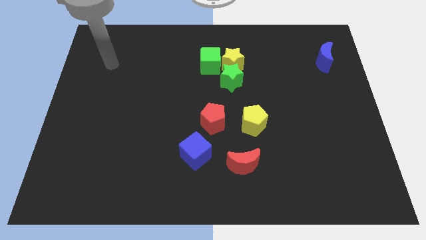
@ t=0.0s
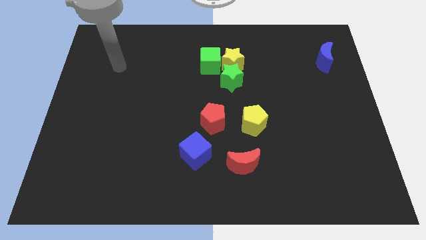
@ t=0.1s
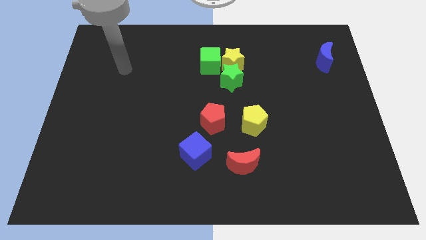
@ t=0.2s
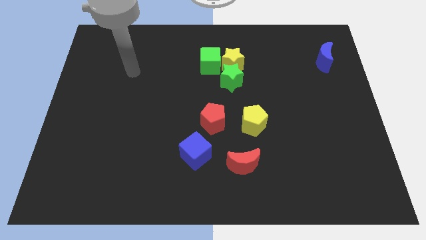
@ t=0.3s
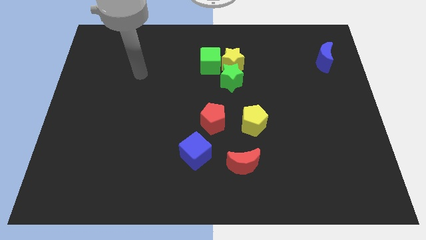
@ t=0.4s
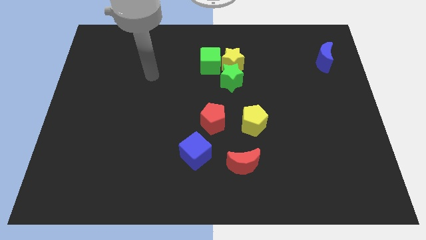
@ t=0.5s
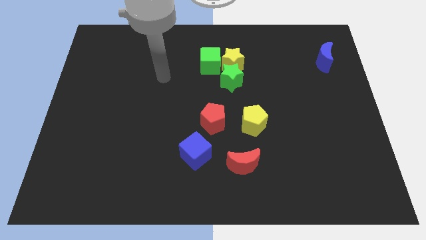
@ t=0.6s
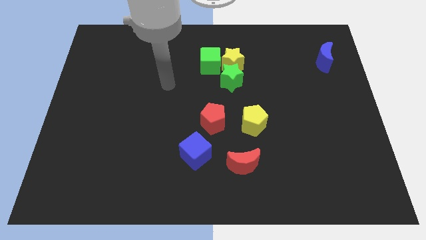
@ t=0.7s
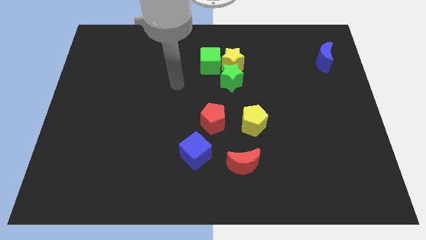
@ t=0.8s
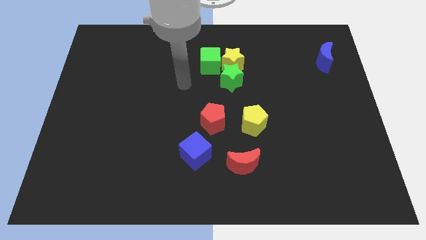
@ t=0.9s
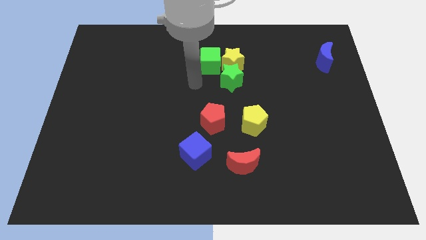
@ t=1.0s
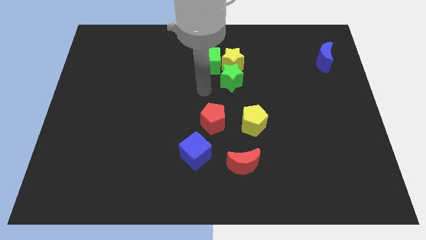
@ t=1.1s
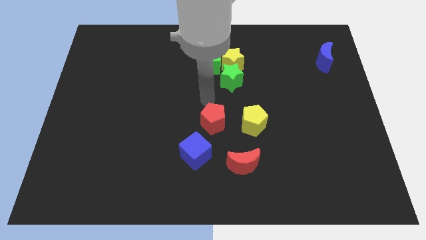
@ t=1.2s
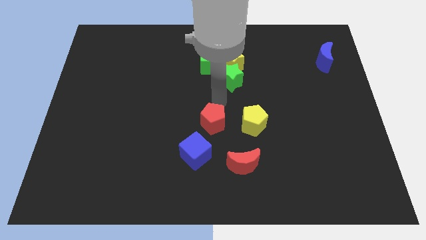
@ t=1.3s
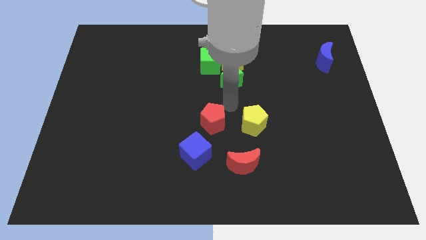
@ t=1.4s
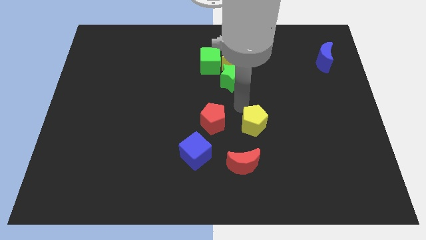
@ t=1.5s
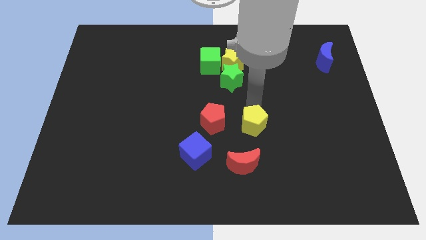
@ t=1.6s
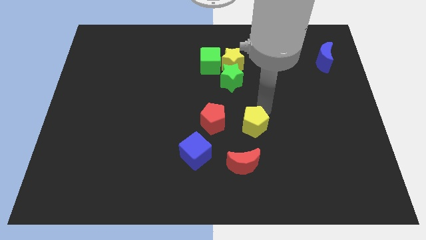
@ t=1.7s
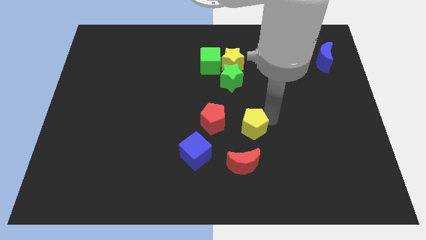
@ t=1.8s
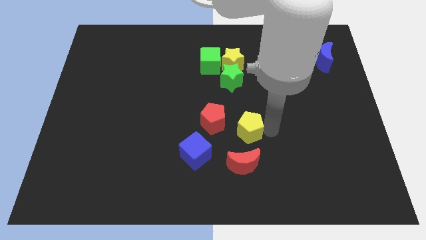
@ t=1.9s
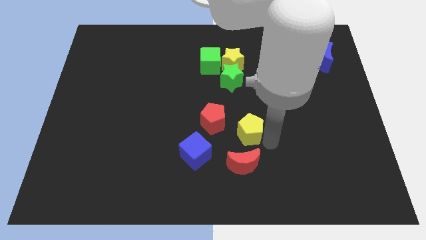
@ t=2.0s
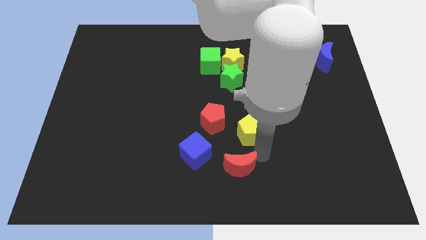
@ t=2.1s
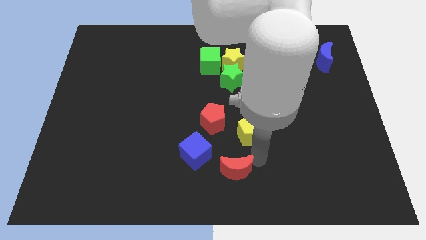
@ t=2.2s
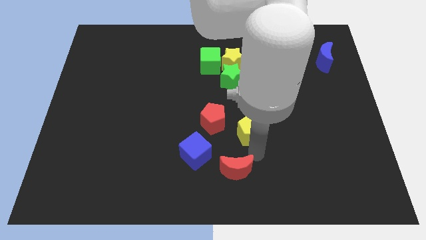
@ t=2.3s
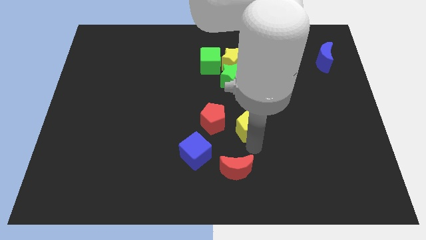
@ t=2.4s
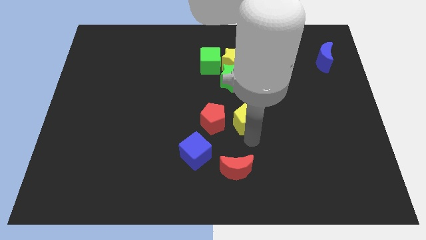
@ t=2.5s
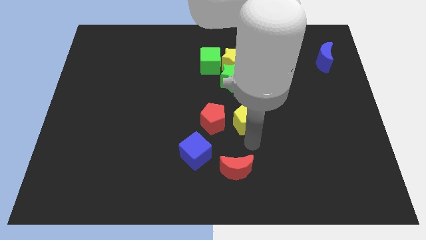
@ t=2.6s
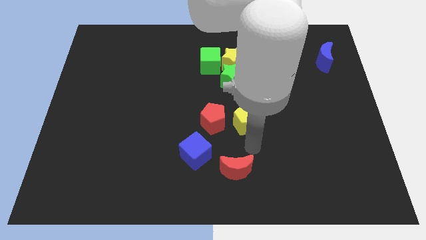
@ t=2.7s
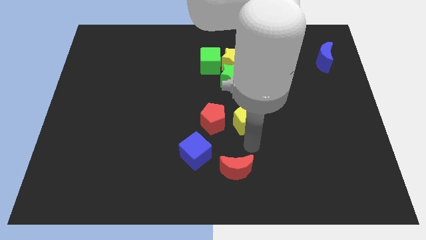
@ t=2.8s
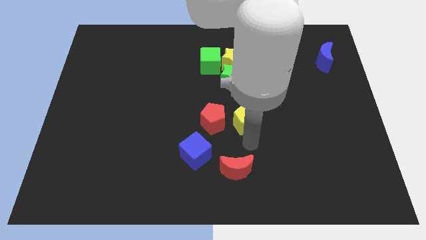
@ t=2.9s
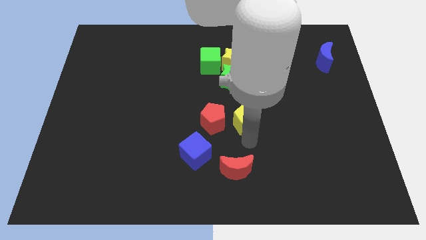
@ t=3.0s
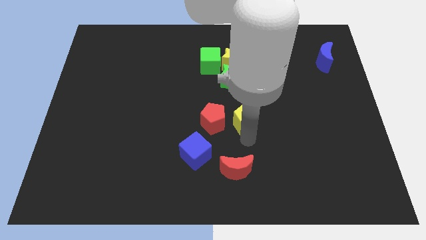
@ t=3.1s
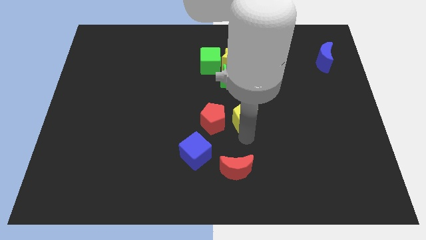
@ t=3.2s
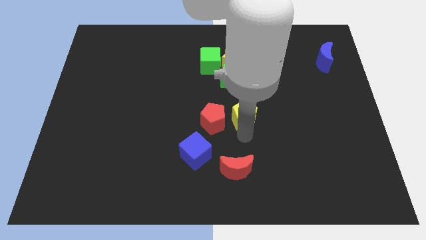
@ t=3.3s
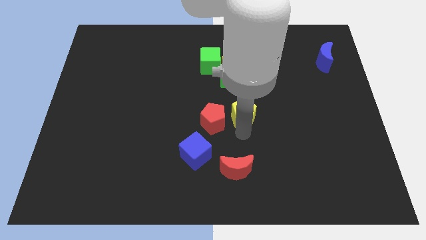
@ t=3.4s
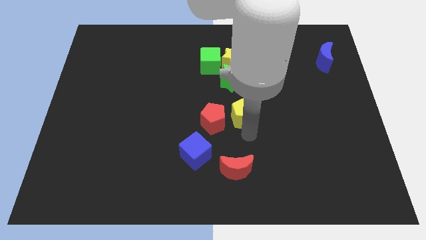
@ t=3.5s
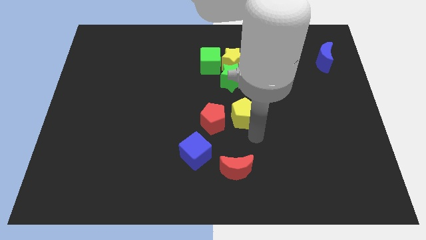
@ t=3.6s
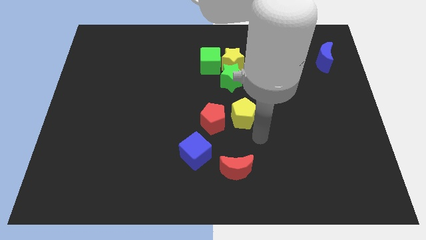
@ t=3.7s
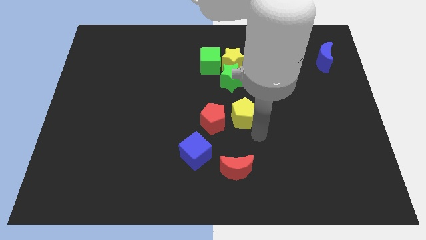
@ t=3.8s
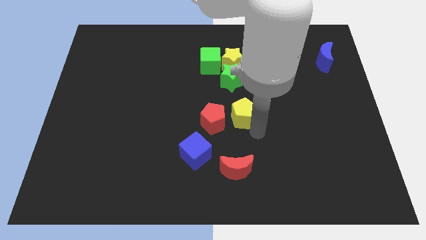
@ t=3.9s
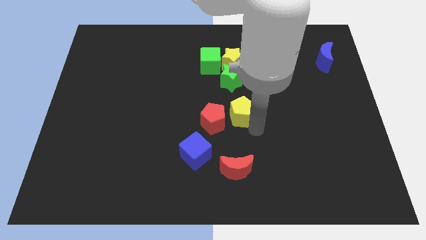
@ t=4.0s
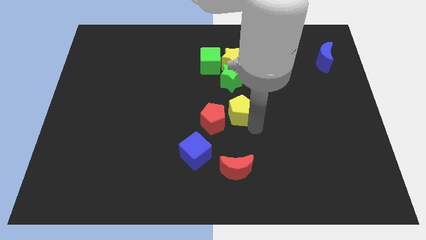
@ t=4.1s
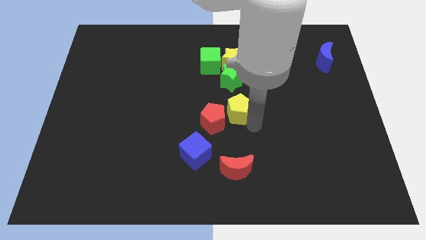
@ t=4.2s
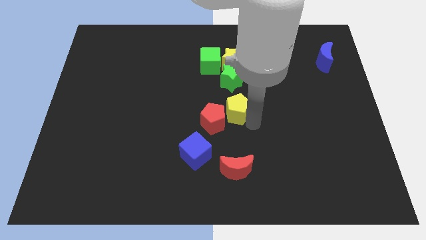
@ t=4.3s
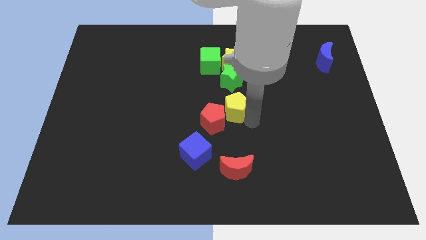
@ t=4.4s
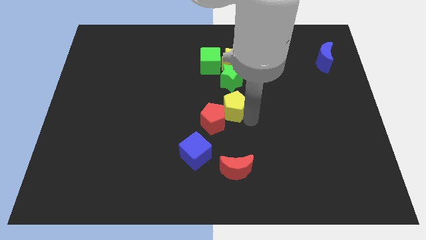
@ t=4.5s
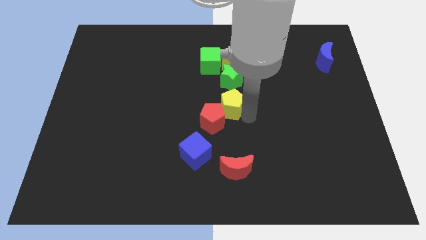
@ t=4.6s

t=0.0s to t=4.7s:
slide the yellow pentagon upwards and to the left diagonally a little bit

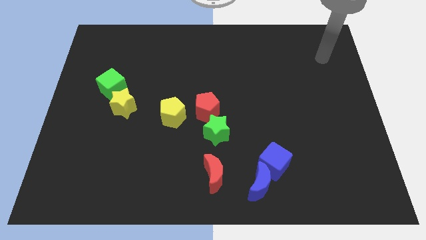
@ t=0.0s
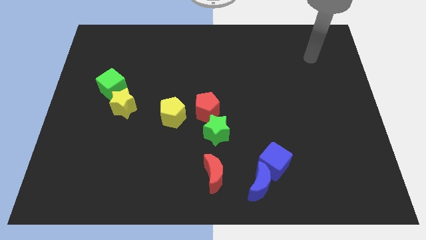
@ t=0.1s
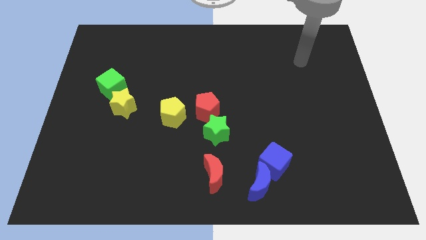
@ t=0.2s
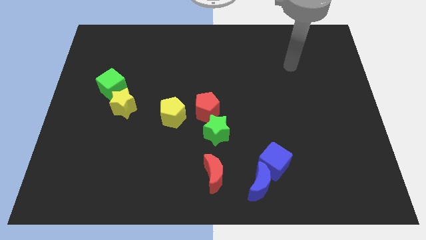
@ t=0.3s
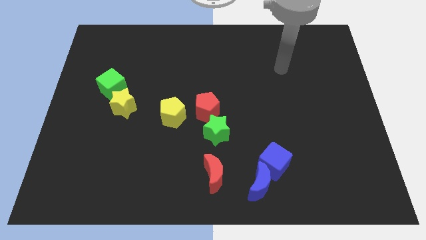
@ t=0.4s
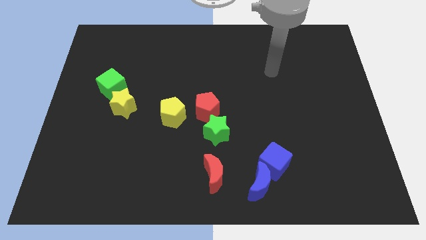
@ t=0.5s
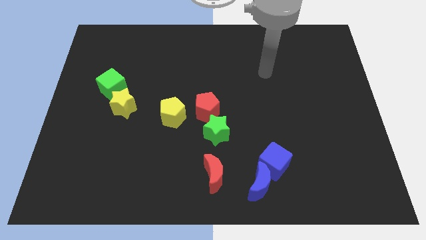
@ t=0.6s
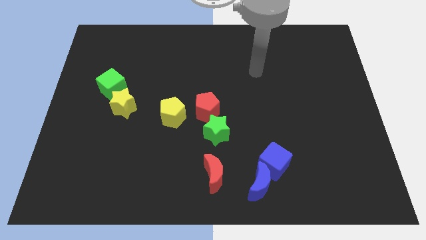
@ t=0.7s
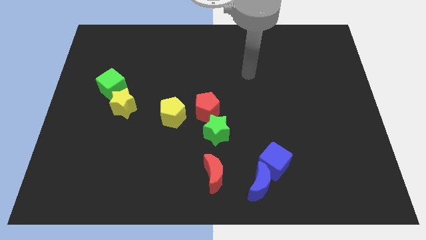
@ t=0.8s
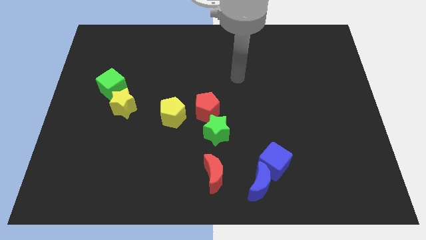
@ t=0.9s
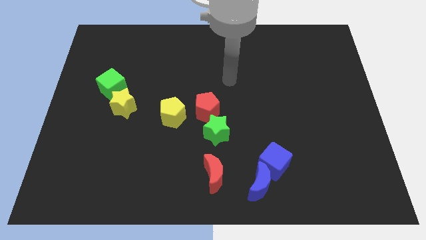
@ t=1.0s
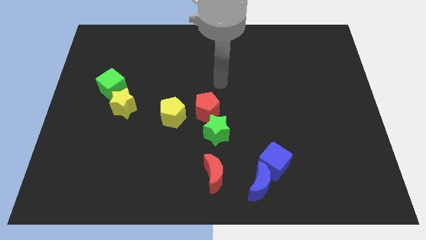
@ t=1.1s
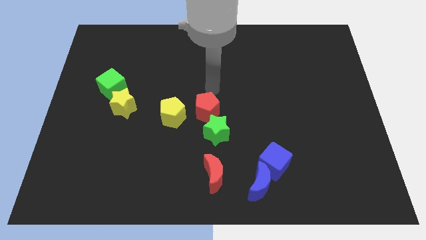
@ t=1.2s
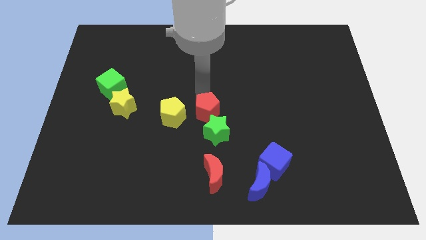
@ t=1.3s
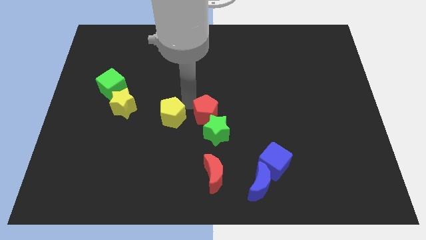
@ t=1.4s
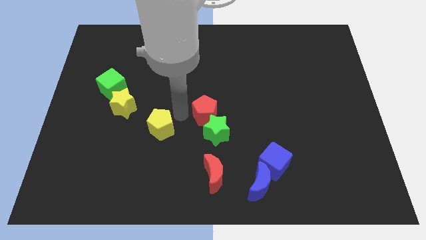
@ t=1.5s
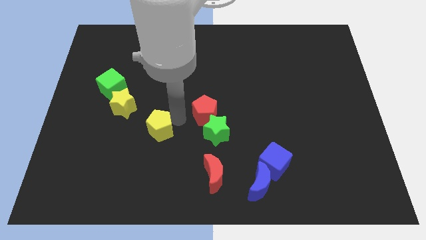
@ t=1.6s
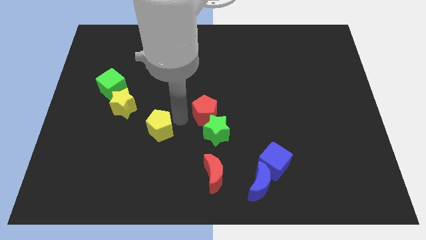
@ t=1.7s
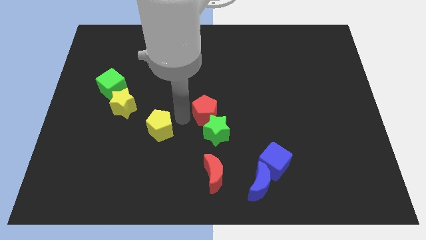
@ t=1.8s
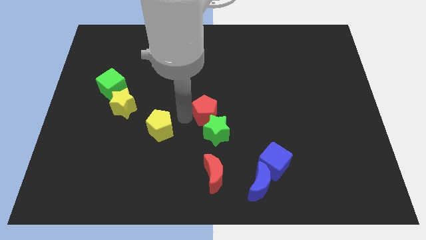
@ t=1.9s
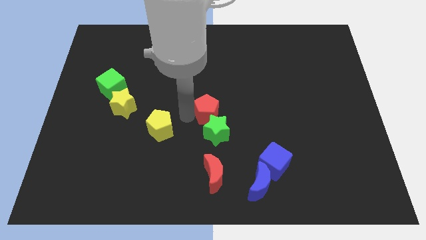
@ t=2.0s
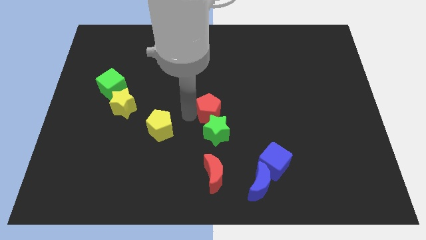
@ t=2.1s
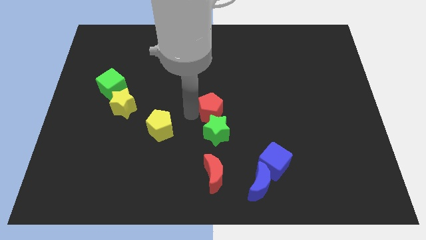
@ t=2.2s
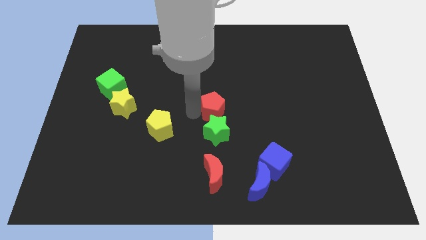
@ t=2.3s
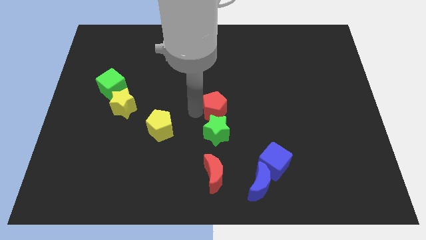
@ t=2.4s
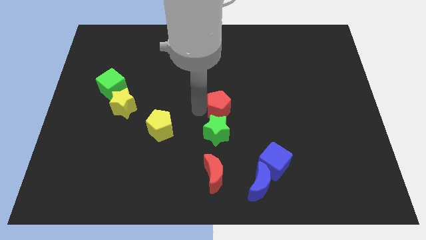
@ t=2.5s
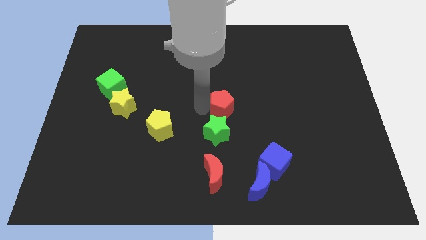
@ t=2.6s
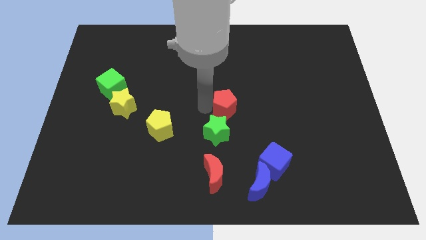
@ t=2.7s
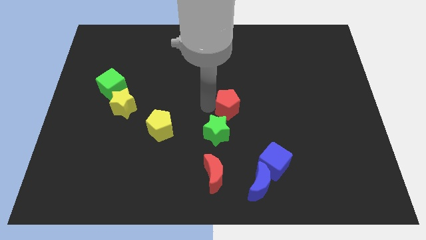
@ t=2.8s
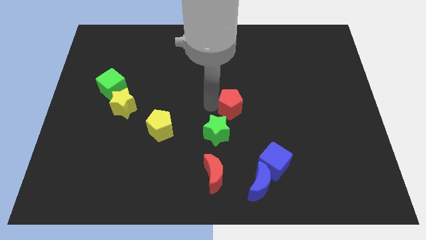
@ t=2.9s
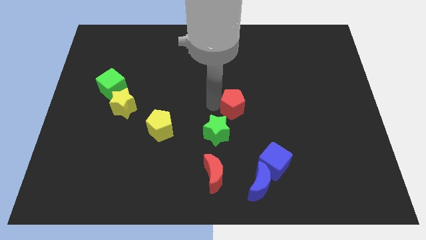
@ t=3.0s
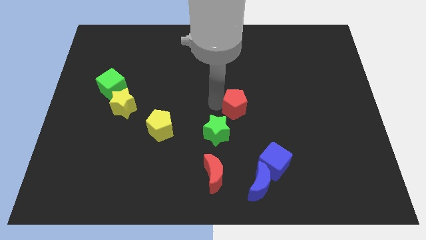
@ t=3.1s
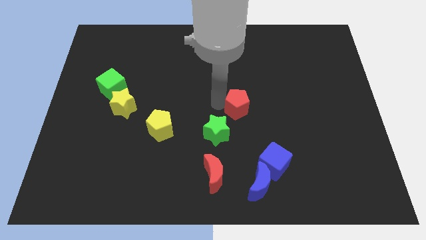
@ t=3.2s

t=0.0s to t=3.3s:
slide the red pentagon to the right somewhat
